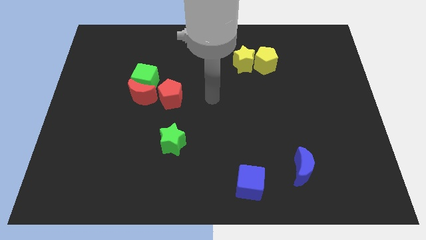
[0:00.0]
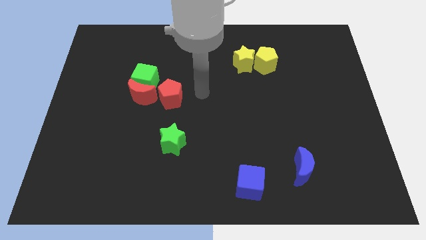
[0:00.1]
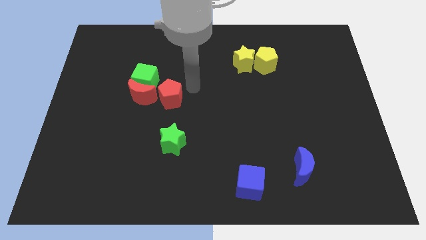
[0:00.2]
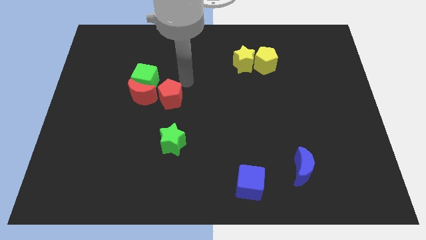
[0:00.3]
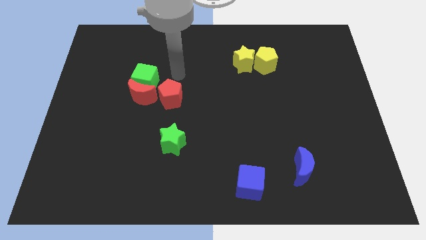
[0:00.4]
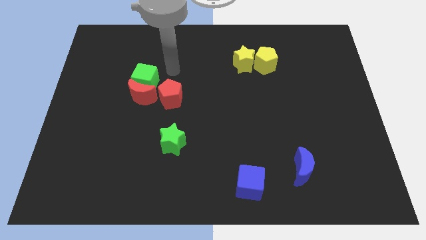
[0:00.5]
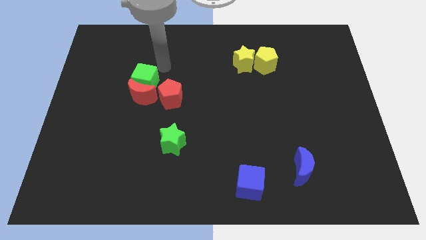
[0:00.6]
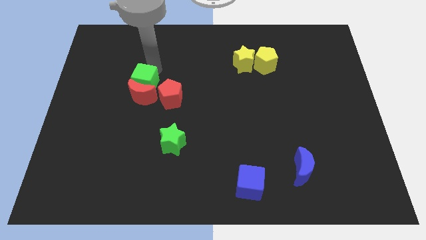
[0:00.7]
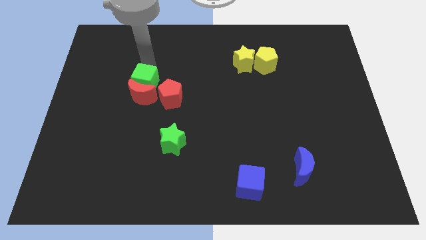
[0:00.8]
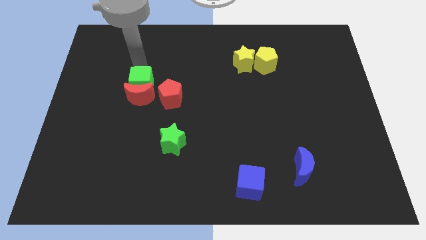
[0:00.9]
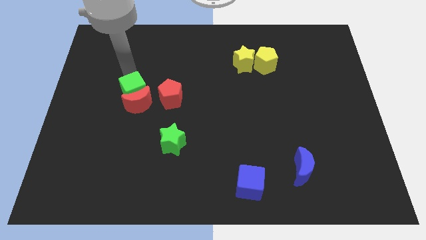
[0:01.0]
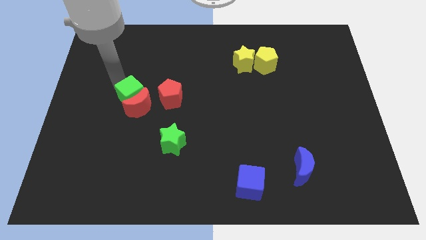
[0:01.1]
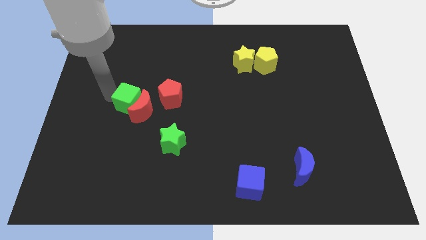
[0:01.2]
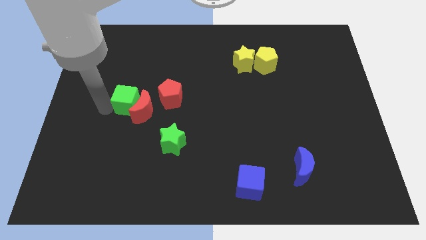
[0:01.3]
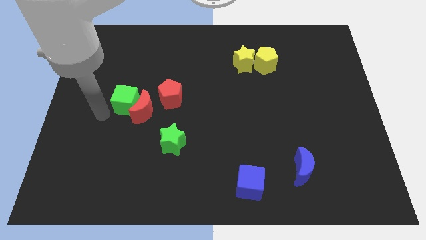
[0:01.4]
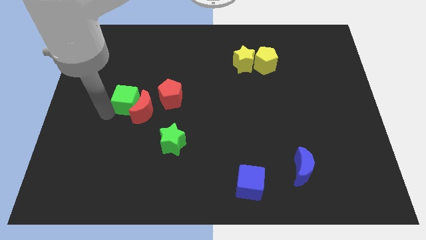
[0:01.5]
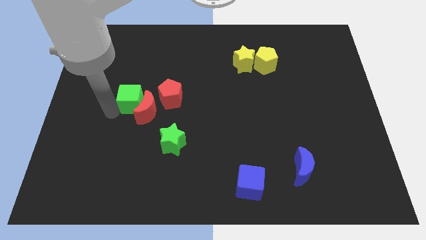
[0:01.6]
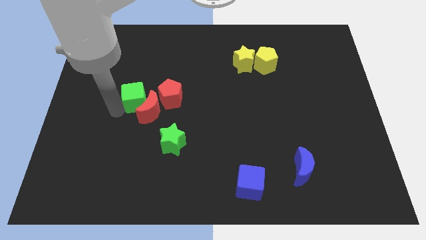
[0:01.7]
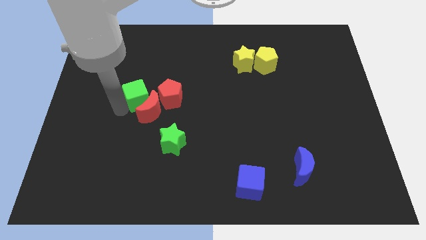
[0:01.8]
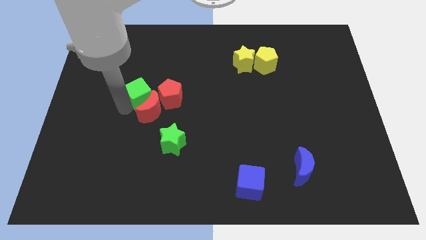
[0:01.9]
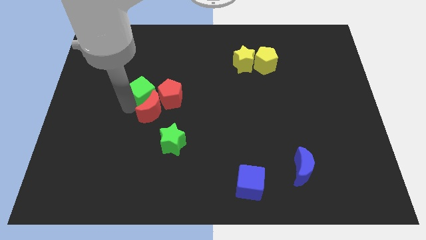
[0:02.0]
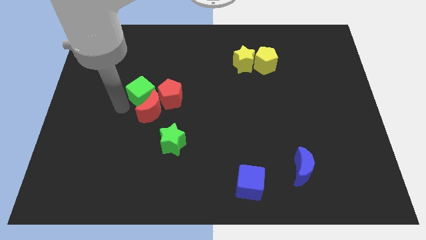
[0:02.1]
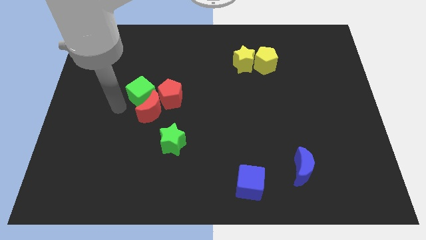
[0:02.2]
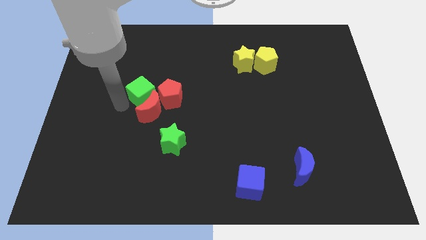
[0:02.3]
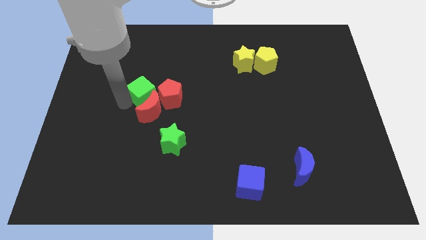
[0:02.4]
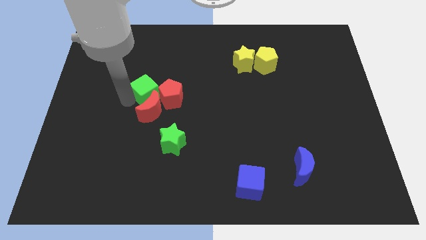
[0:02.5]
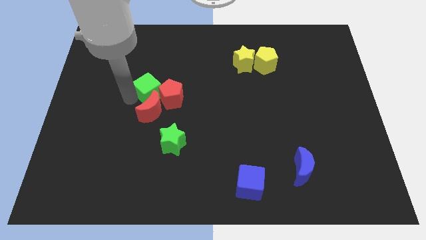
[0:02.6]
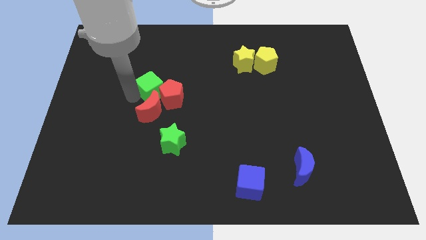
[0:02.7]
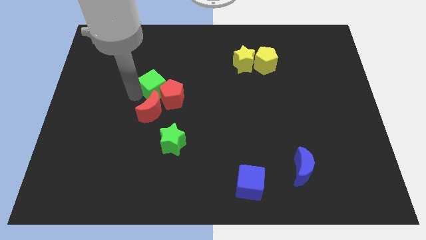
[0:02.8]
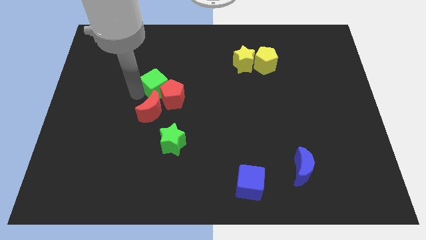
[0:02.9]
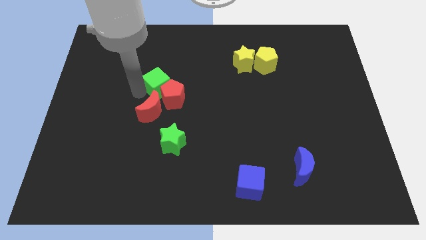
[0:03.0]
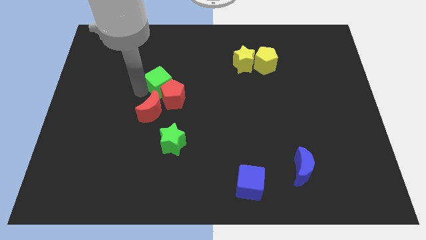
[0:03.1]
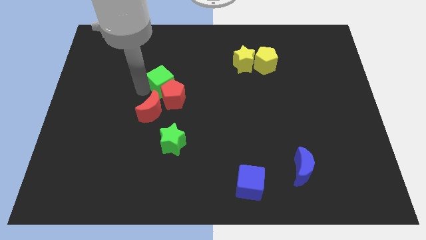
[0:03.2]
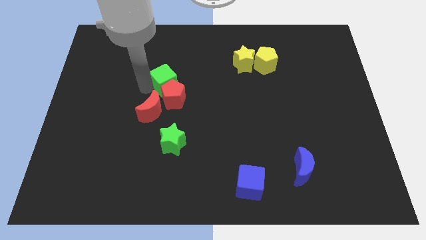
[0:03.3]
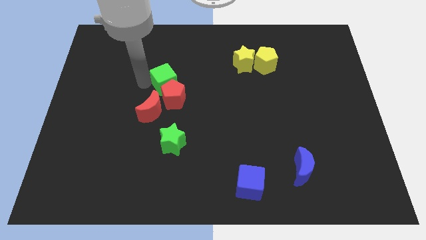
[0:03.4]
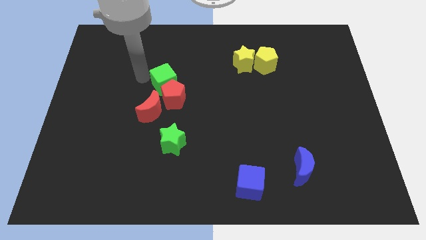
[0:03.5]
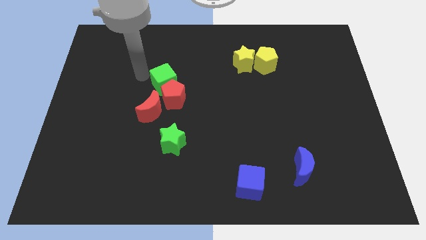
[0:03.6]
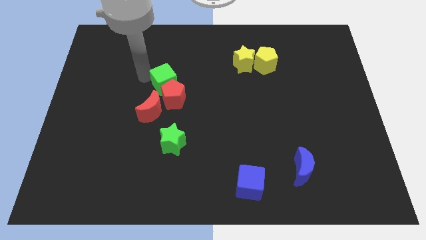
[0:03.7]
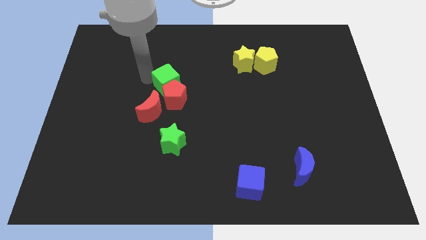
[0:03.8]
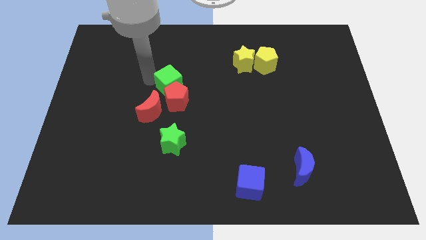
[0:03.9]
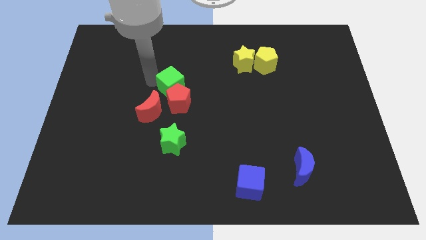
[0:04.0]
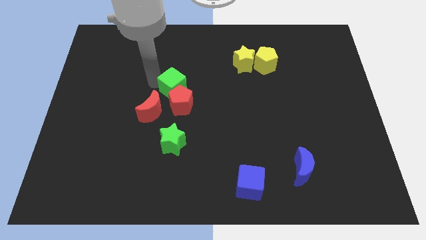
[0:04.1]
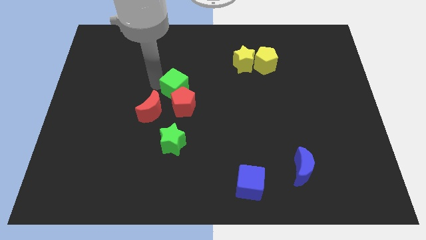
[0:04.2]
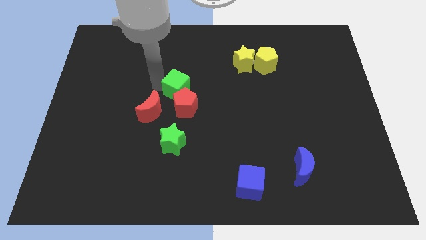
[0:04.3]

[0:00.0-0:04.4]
slide the green cube downwards and to the right diagonally slightly

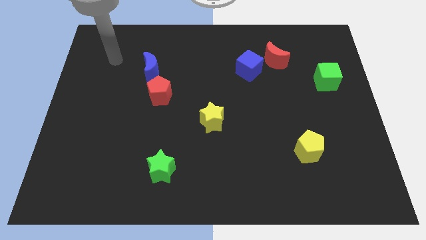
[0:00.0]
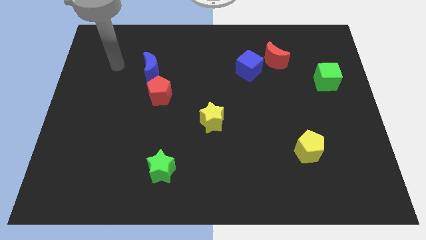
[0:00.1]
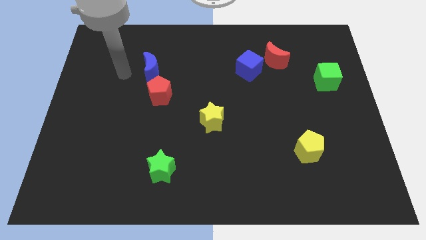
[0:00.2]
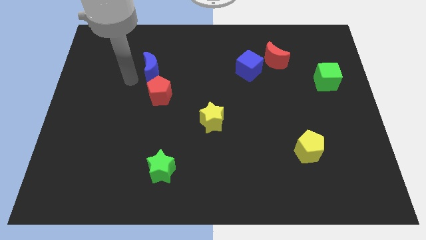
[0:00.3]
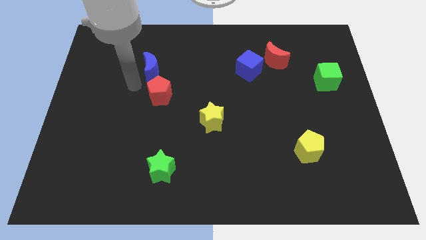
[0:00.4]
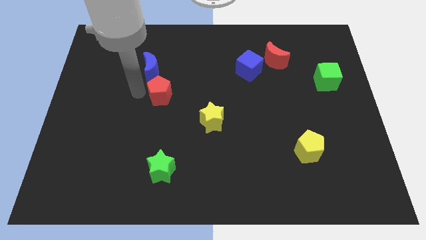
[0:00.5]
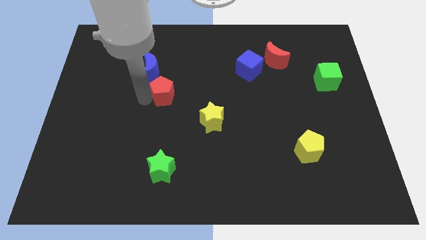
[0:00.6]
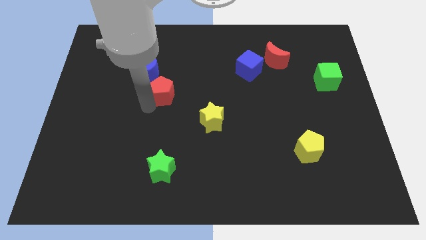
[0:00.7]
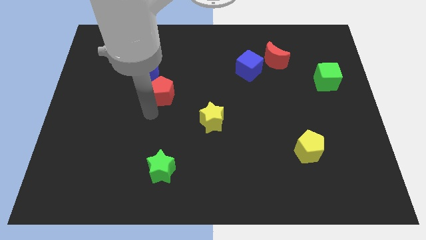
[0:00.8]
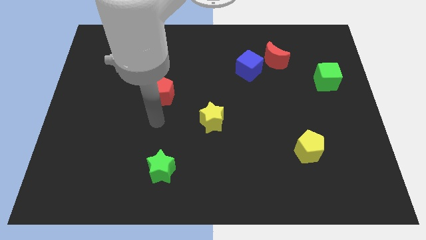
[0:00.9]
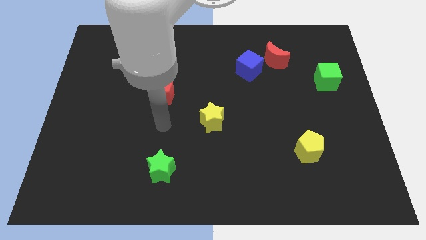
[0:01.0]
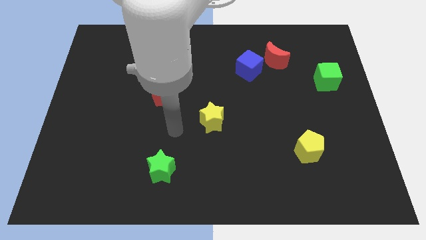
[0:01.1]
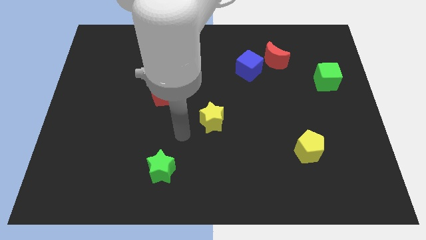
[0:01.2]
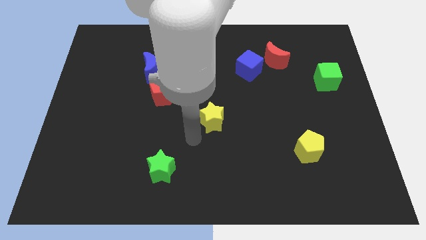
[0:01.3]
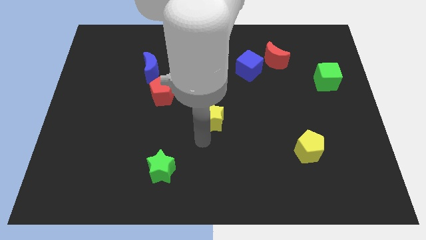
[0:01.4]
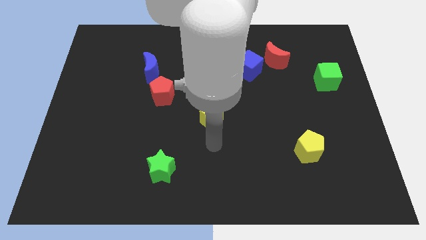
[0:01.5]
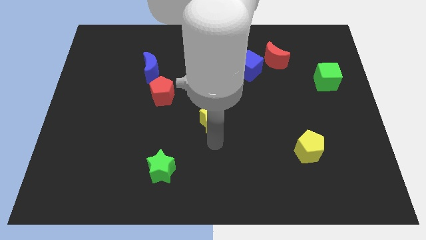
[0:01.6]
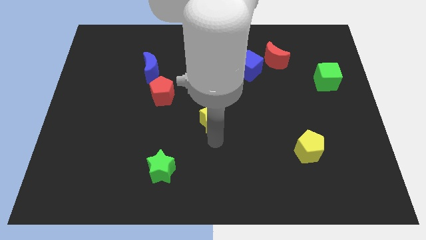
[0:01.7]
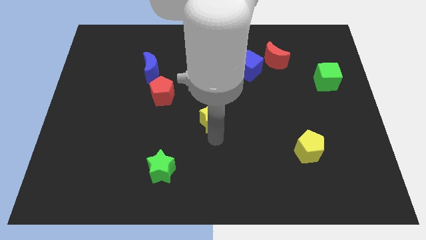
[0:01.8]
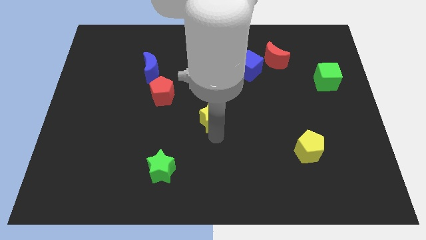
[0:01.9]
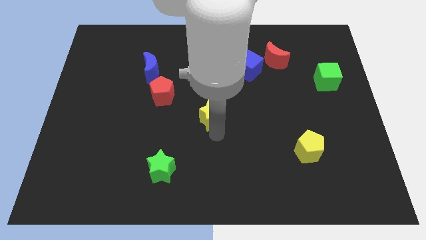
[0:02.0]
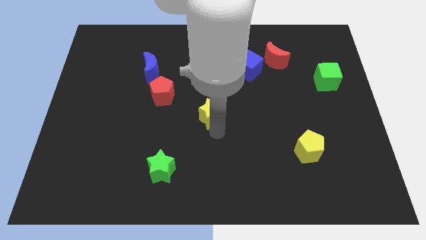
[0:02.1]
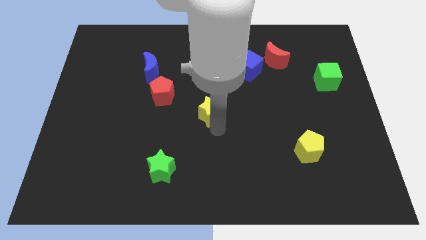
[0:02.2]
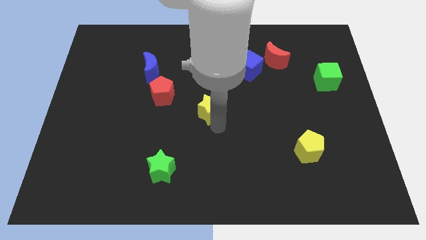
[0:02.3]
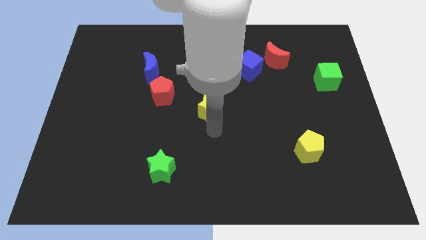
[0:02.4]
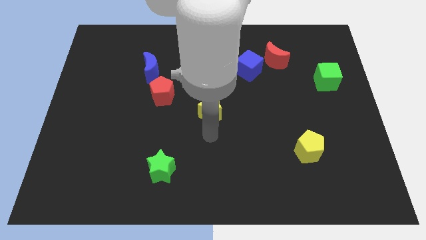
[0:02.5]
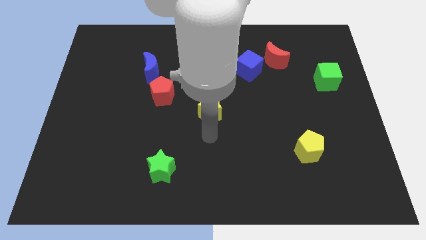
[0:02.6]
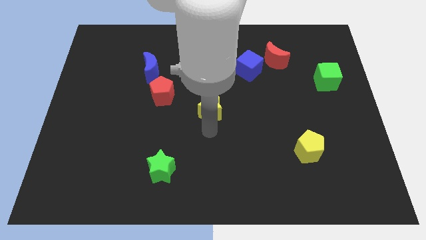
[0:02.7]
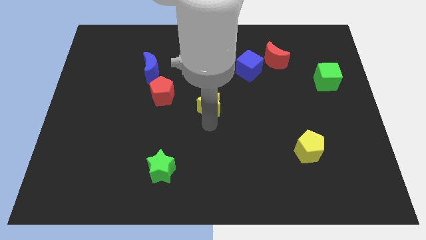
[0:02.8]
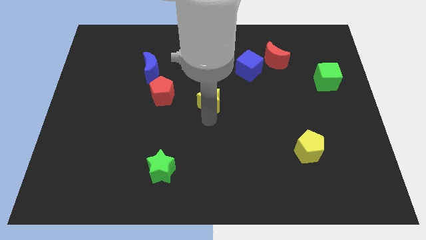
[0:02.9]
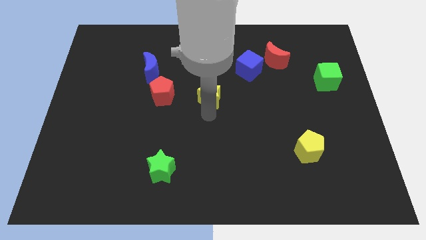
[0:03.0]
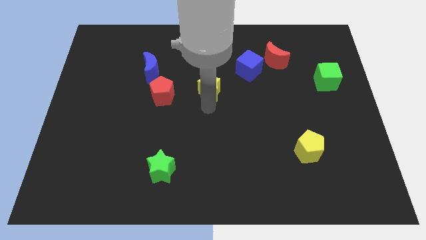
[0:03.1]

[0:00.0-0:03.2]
slightly slide the yellow star up
